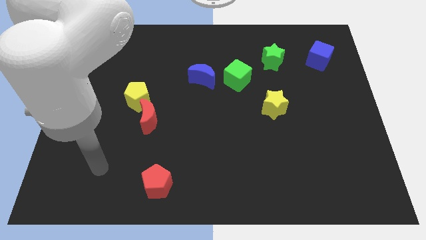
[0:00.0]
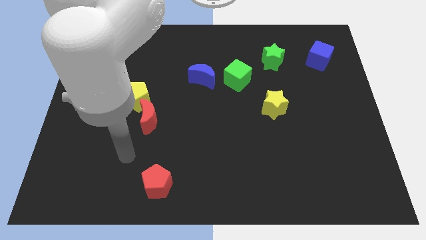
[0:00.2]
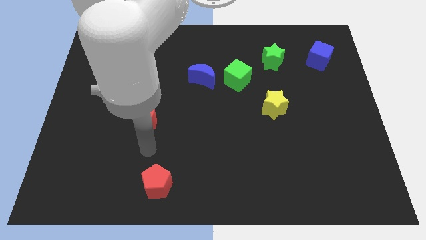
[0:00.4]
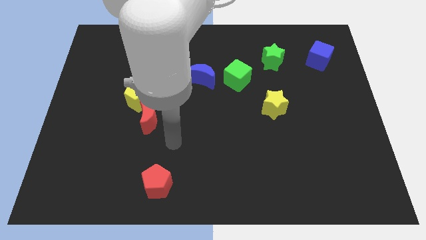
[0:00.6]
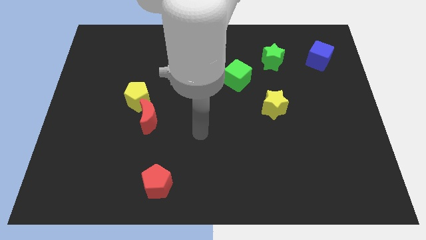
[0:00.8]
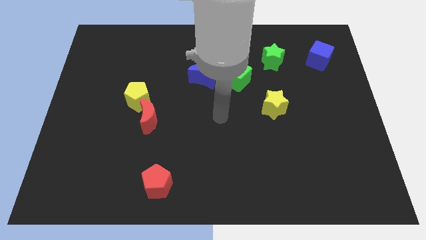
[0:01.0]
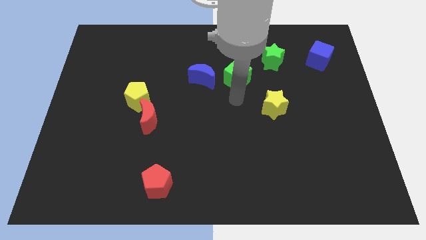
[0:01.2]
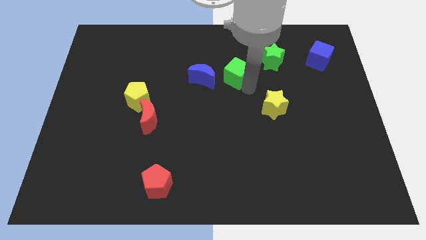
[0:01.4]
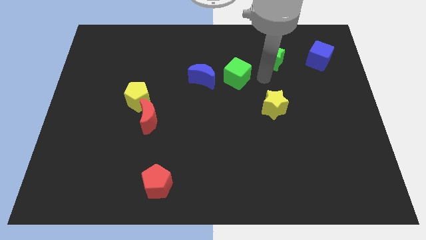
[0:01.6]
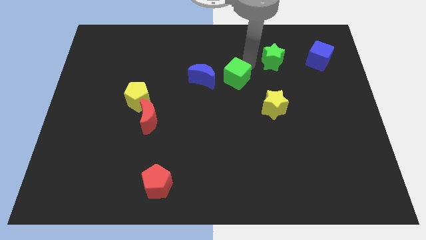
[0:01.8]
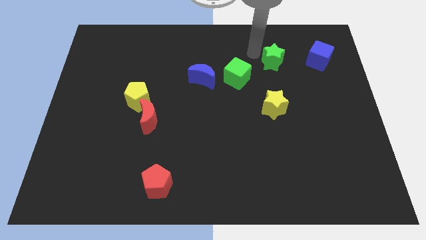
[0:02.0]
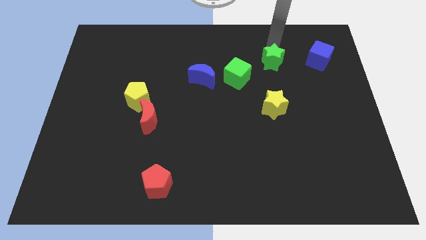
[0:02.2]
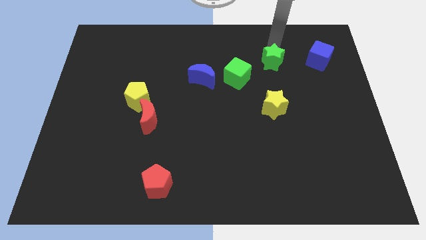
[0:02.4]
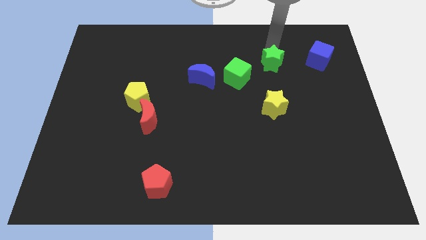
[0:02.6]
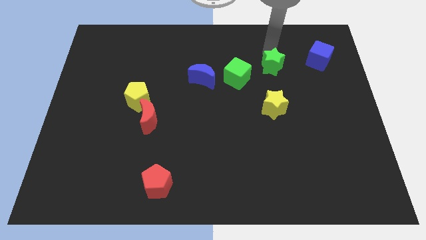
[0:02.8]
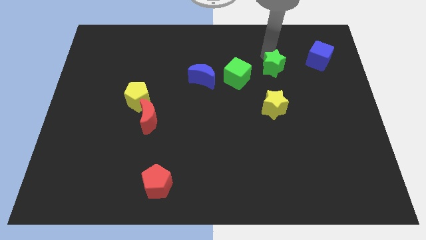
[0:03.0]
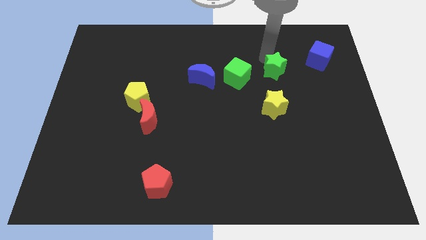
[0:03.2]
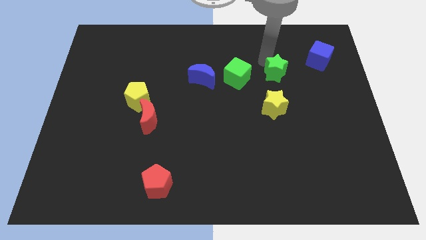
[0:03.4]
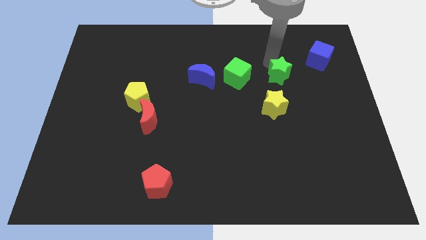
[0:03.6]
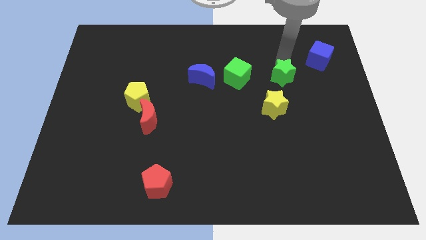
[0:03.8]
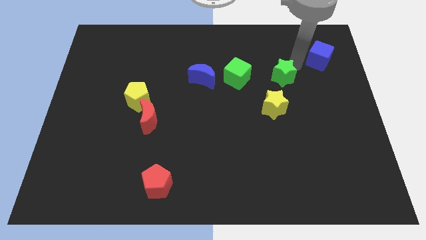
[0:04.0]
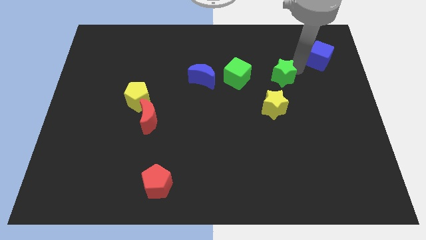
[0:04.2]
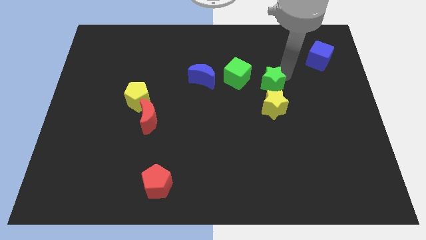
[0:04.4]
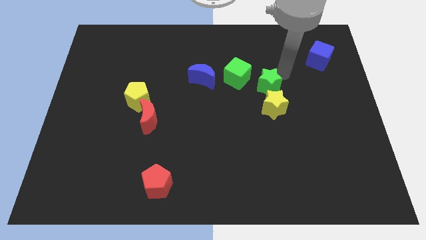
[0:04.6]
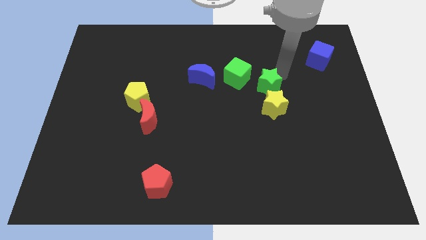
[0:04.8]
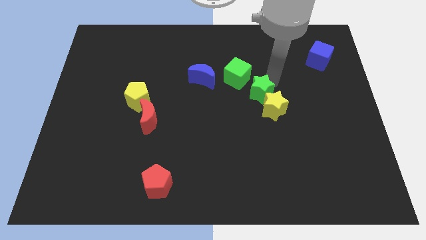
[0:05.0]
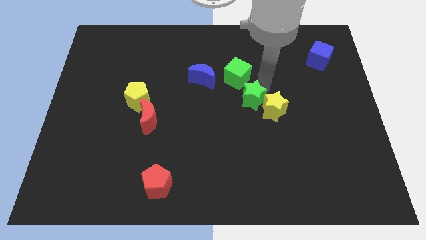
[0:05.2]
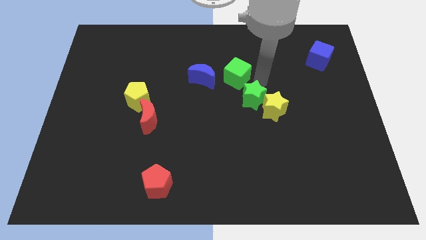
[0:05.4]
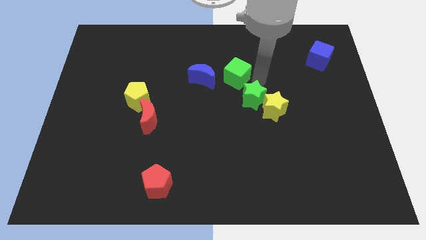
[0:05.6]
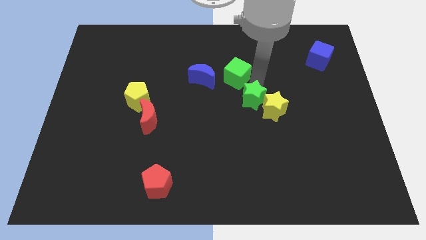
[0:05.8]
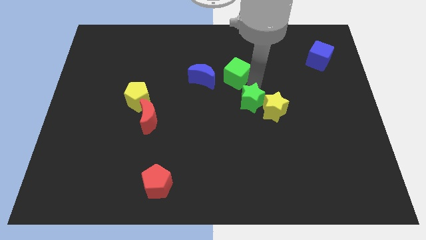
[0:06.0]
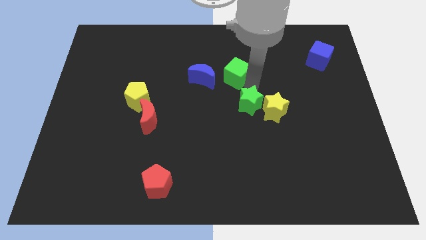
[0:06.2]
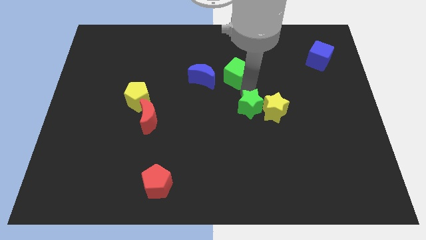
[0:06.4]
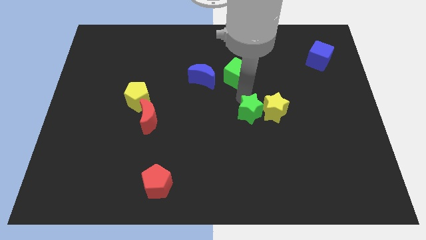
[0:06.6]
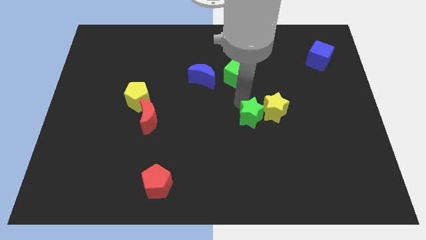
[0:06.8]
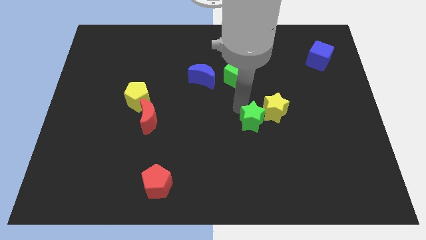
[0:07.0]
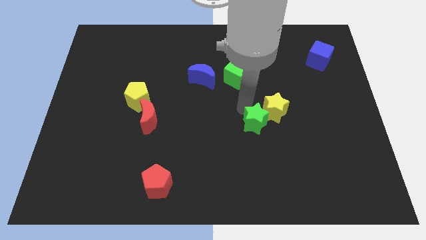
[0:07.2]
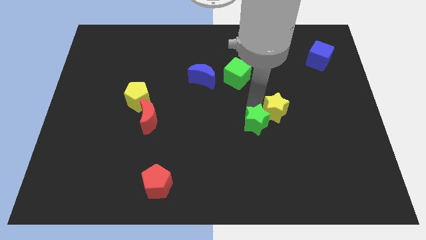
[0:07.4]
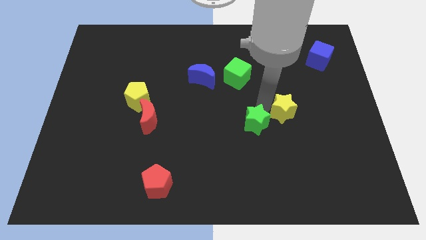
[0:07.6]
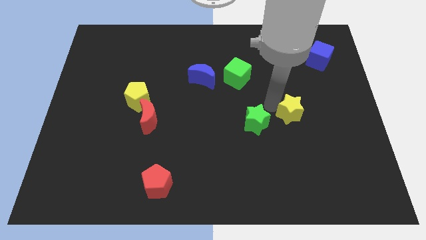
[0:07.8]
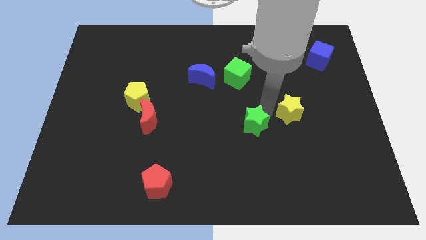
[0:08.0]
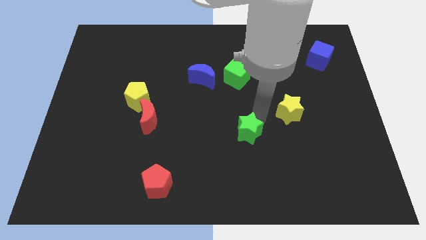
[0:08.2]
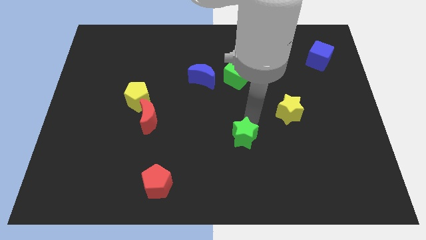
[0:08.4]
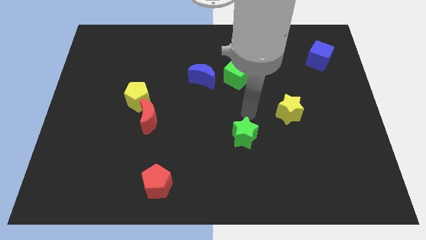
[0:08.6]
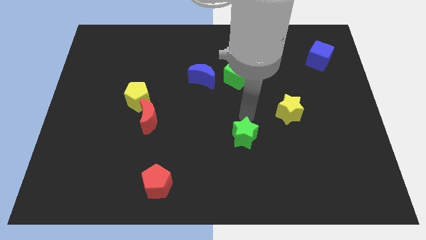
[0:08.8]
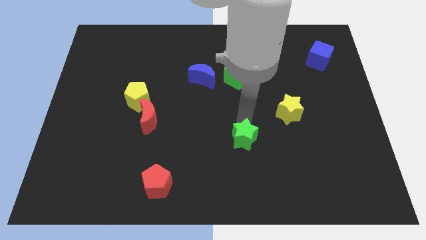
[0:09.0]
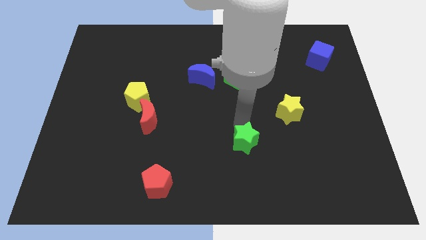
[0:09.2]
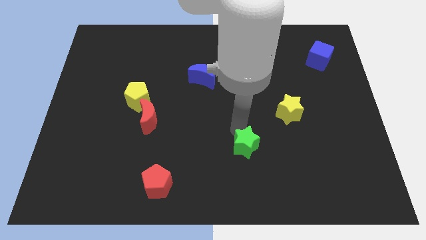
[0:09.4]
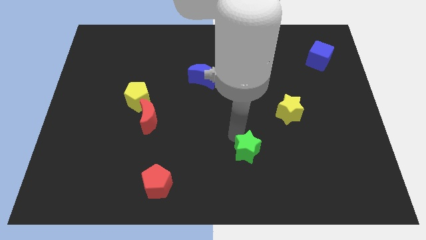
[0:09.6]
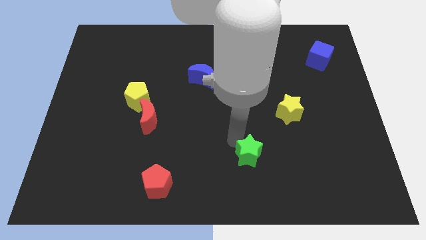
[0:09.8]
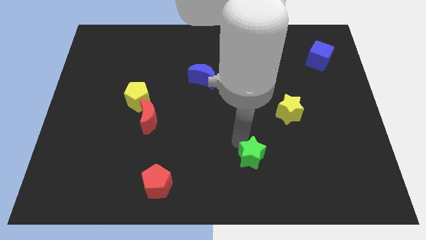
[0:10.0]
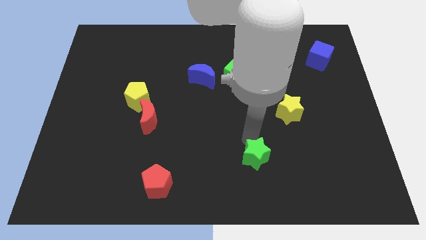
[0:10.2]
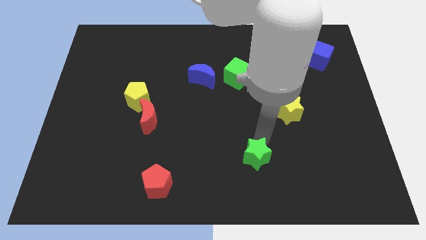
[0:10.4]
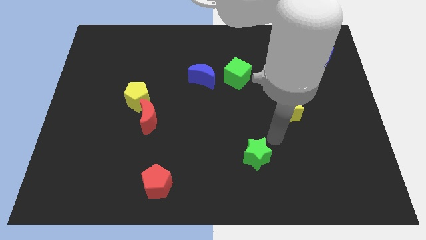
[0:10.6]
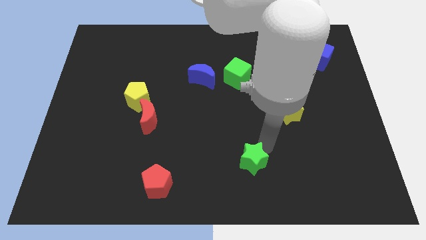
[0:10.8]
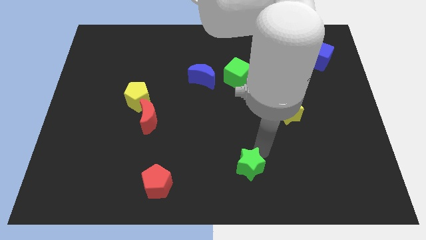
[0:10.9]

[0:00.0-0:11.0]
slide the green star to the bottom side

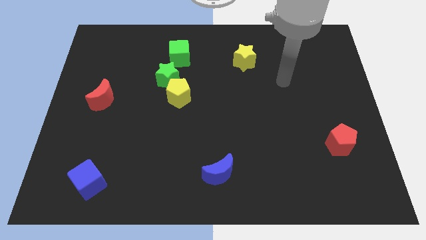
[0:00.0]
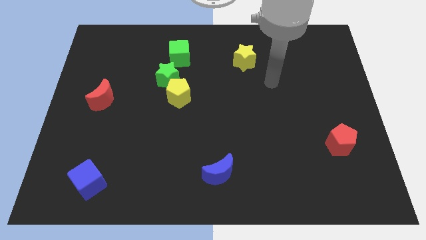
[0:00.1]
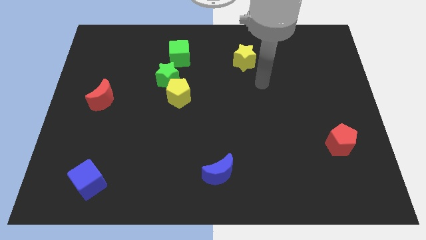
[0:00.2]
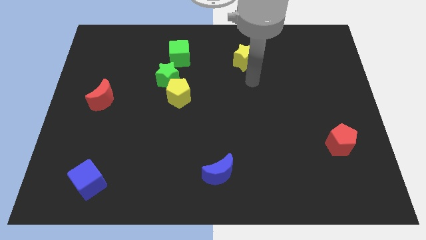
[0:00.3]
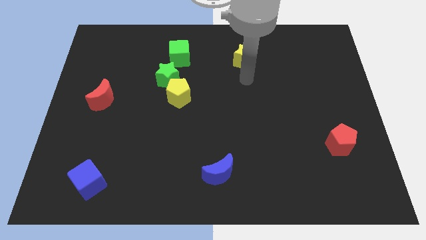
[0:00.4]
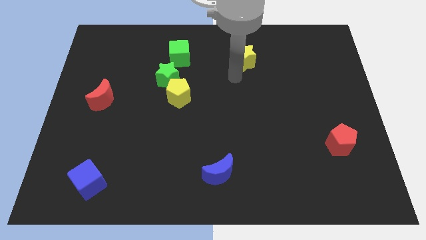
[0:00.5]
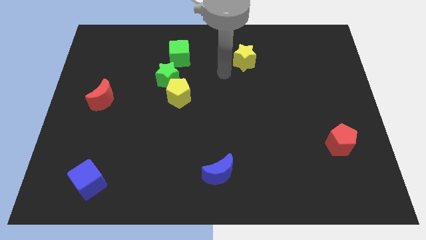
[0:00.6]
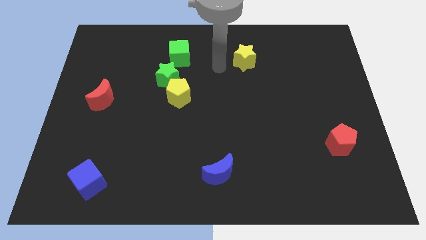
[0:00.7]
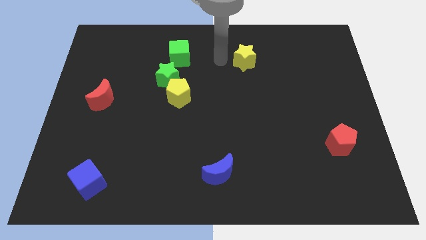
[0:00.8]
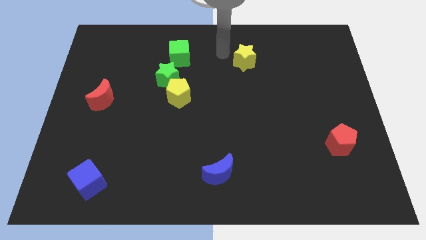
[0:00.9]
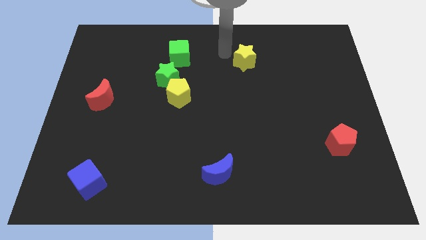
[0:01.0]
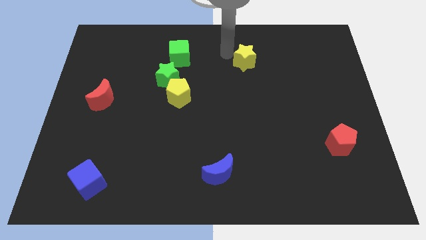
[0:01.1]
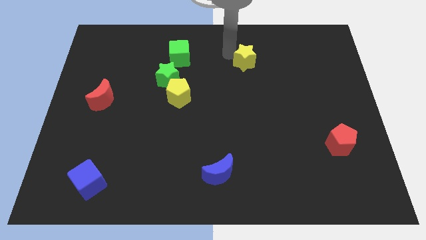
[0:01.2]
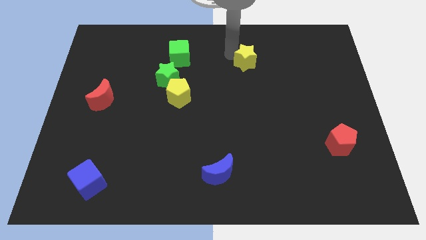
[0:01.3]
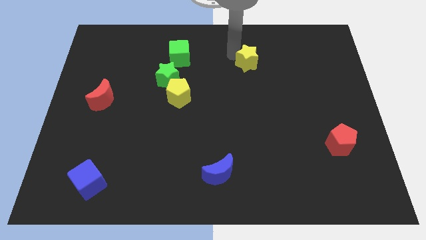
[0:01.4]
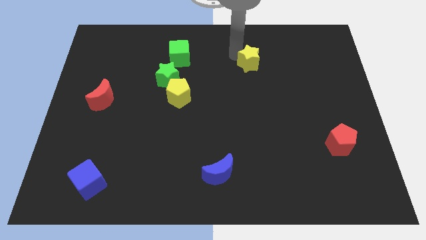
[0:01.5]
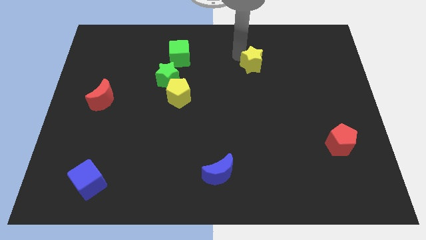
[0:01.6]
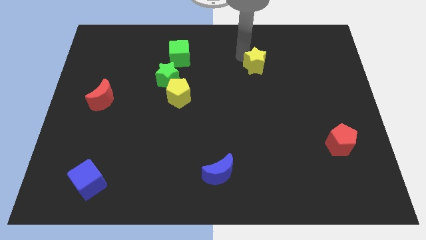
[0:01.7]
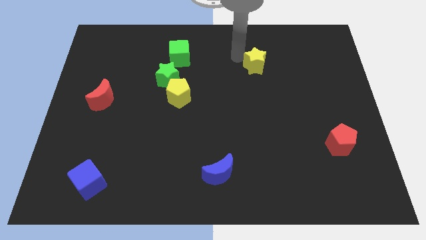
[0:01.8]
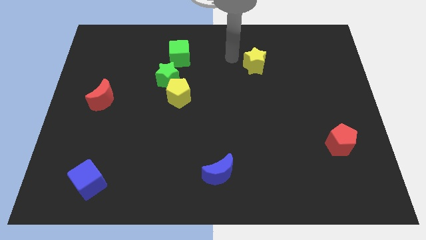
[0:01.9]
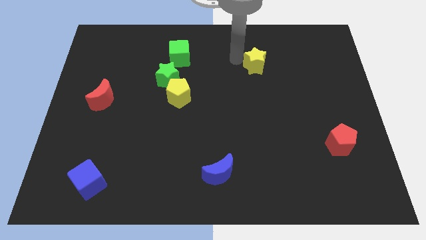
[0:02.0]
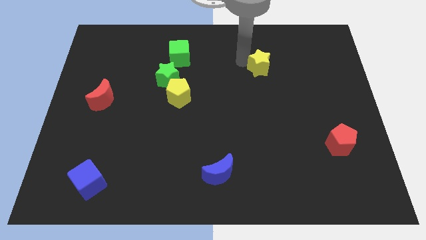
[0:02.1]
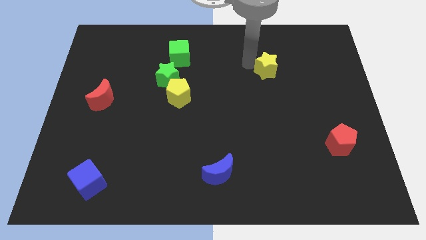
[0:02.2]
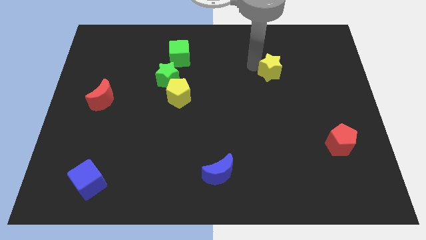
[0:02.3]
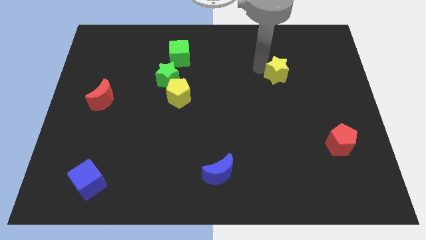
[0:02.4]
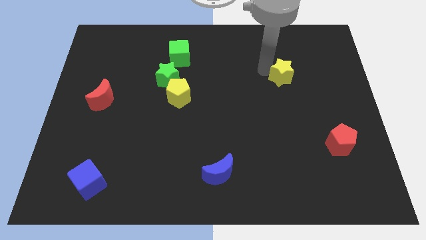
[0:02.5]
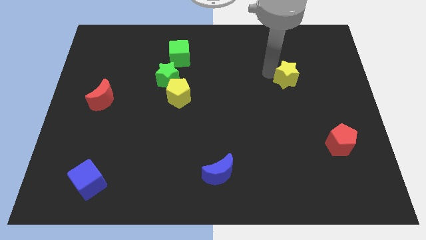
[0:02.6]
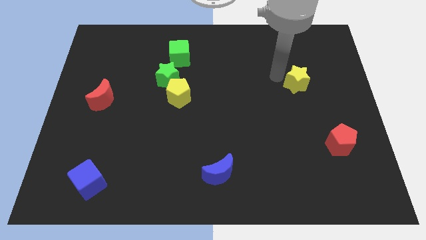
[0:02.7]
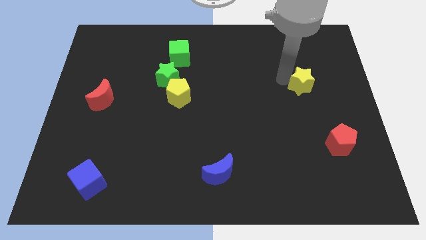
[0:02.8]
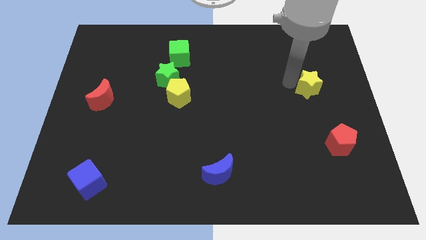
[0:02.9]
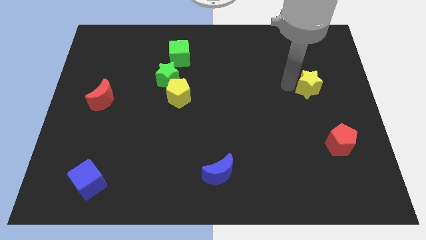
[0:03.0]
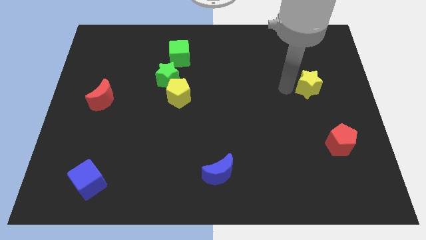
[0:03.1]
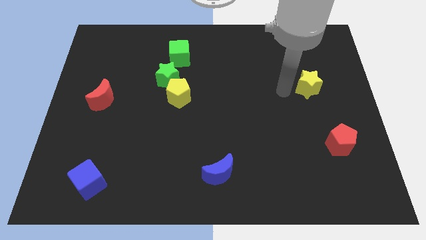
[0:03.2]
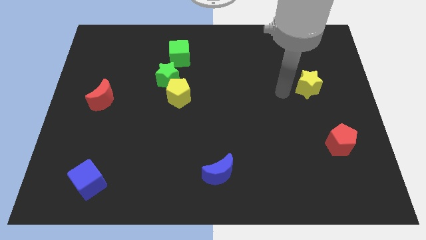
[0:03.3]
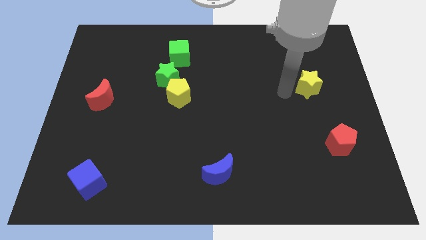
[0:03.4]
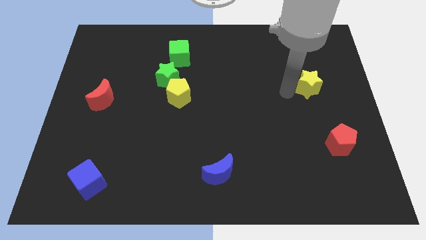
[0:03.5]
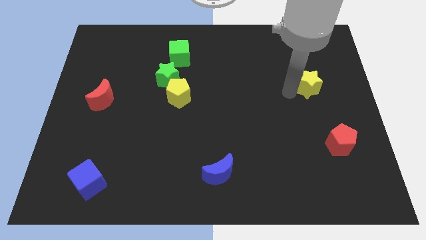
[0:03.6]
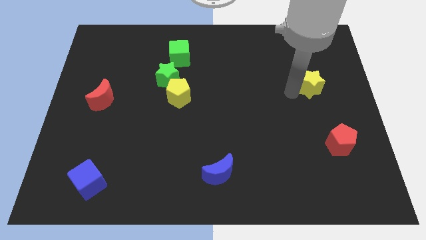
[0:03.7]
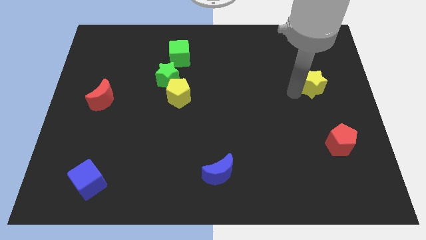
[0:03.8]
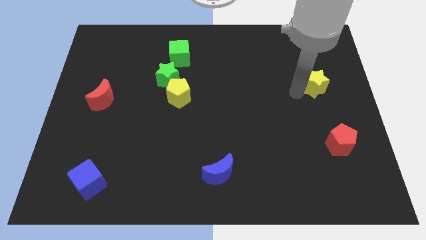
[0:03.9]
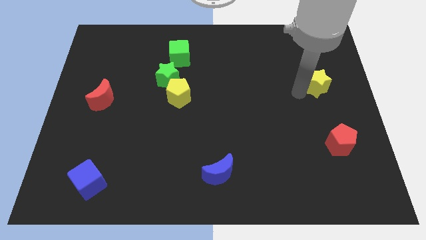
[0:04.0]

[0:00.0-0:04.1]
push the yellow star to the center right
